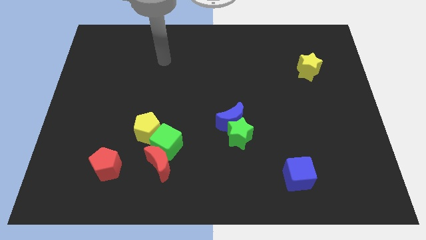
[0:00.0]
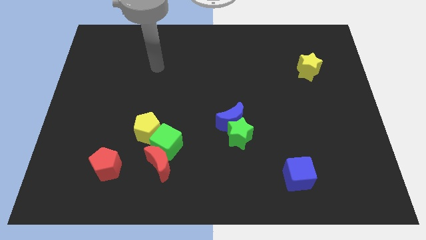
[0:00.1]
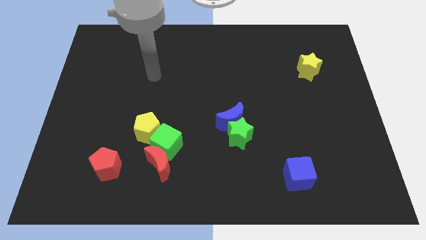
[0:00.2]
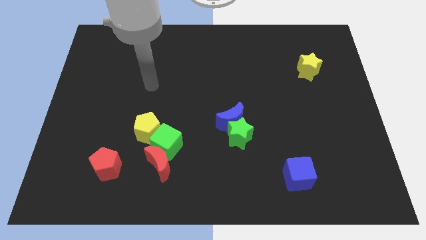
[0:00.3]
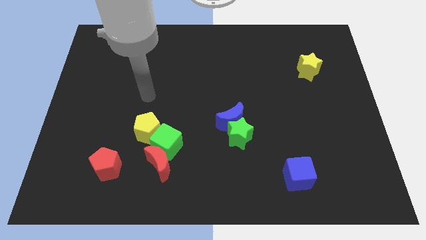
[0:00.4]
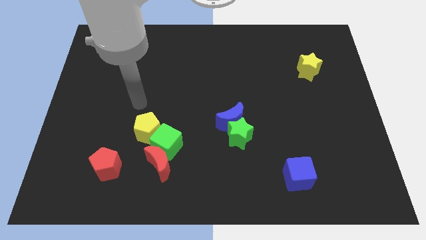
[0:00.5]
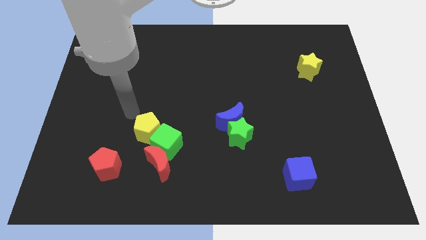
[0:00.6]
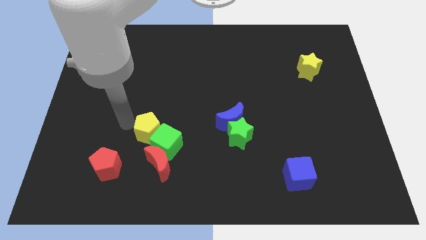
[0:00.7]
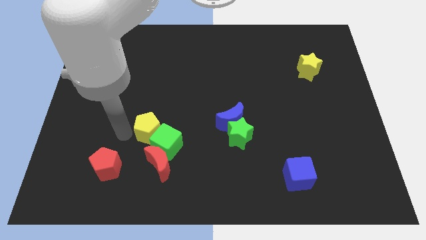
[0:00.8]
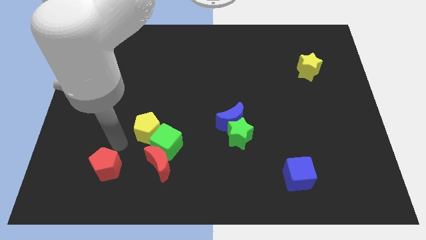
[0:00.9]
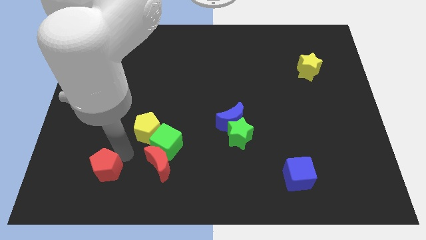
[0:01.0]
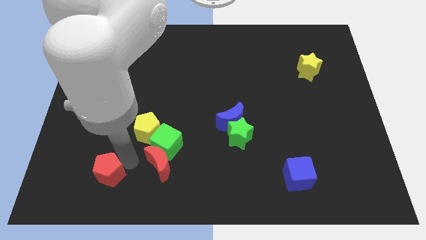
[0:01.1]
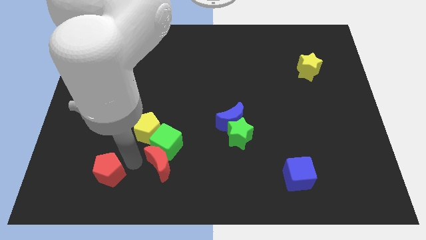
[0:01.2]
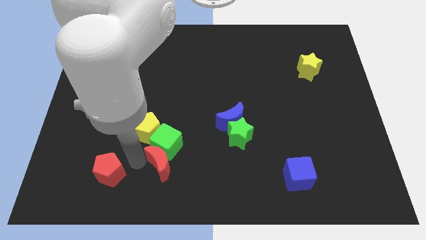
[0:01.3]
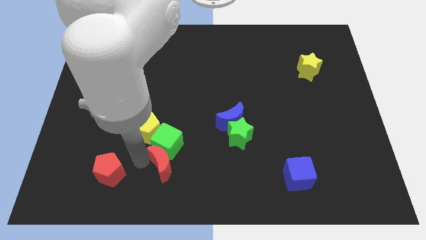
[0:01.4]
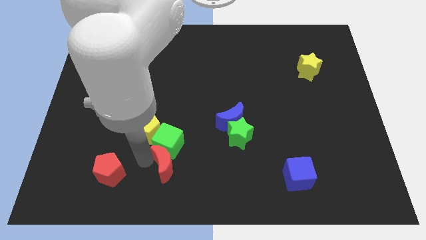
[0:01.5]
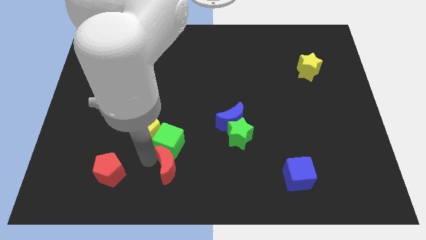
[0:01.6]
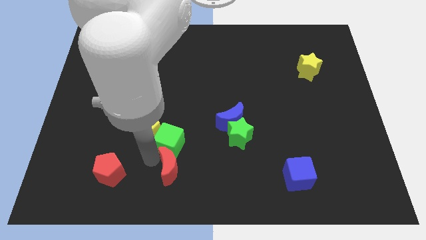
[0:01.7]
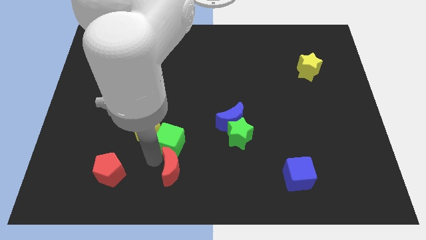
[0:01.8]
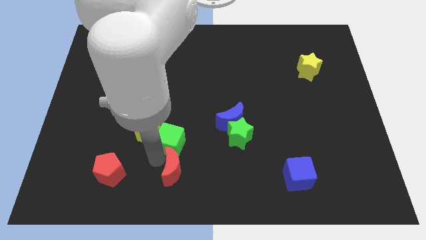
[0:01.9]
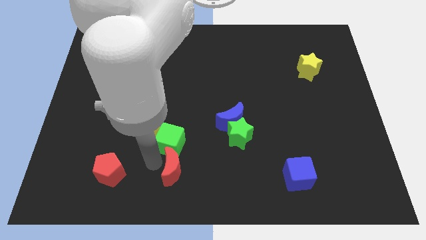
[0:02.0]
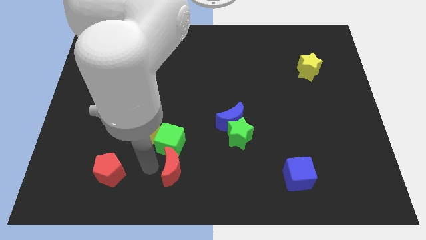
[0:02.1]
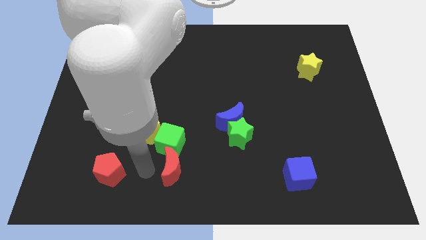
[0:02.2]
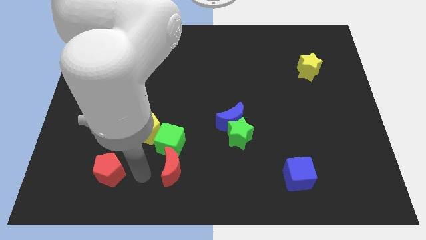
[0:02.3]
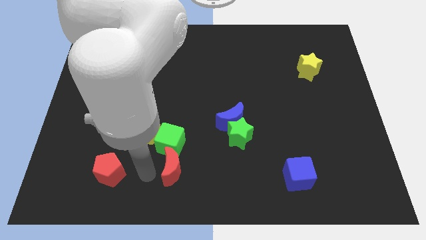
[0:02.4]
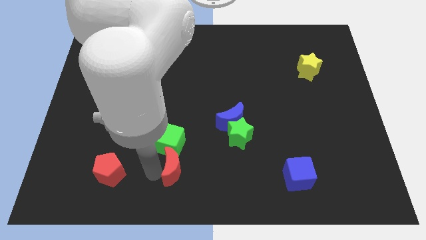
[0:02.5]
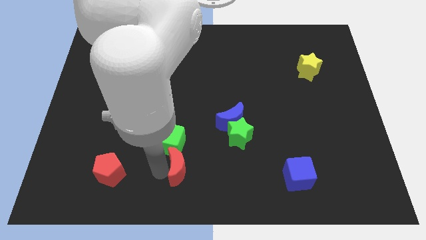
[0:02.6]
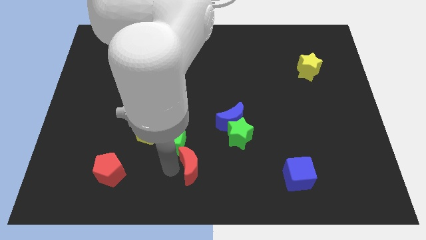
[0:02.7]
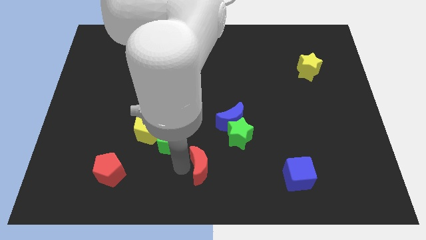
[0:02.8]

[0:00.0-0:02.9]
push the red moon a little to the right

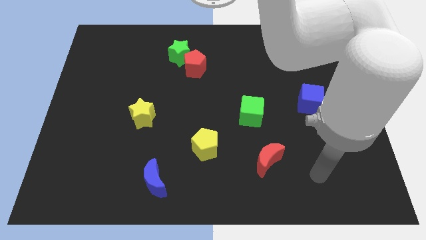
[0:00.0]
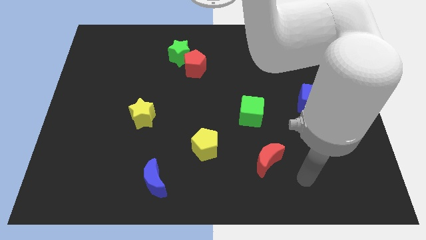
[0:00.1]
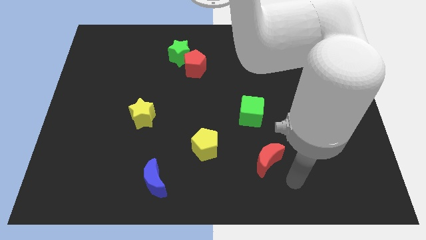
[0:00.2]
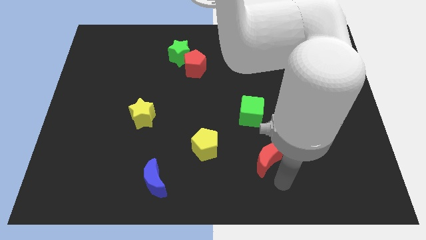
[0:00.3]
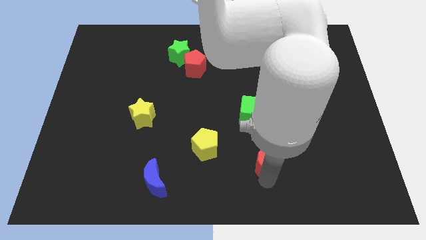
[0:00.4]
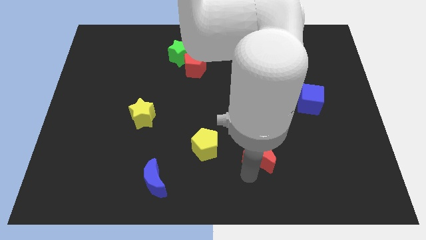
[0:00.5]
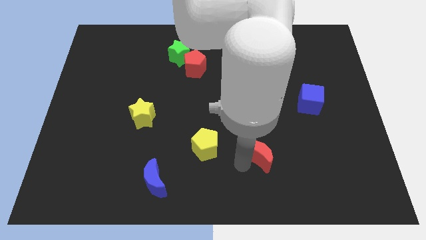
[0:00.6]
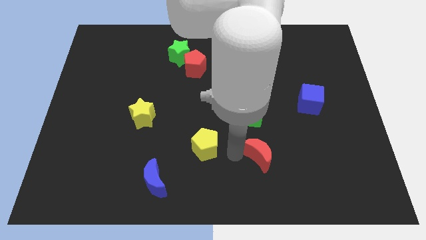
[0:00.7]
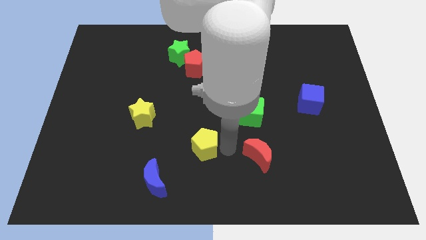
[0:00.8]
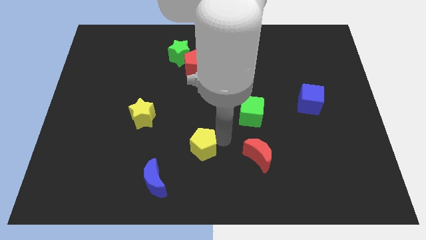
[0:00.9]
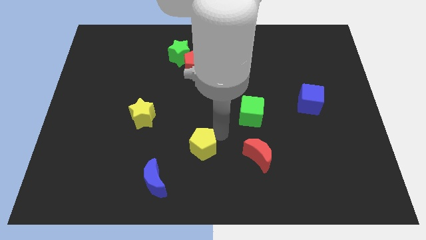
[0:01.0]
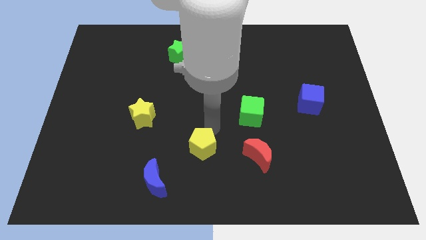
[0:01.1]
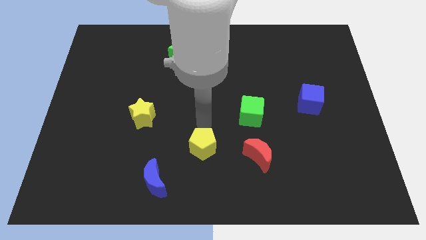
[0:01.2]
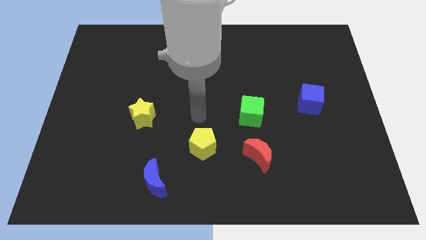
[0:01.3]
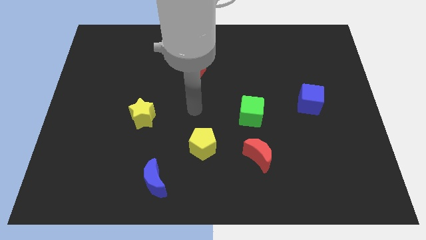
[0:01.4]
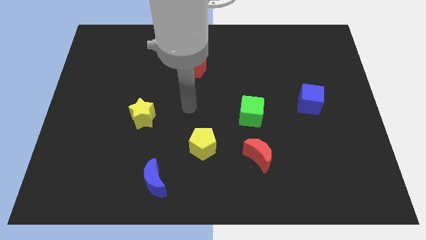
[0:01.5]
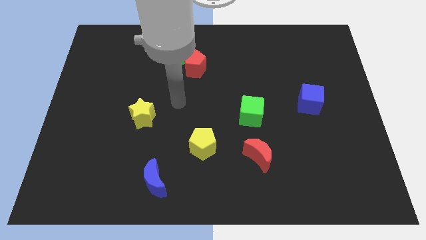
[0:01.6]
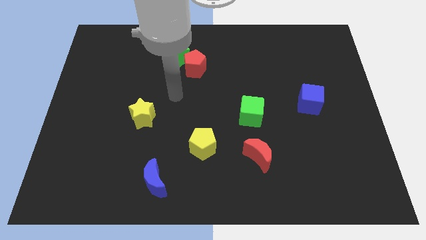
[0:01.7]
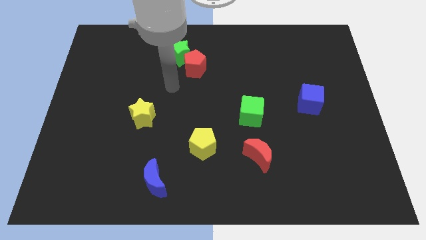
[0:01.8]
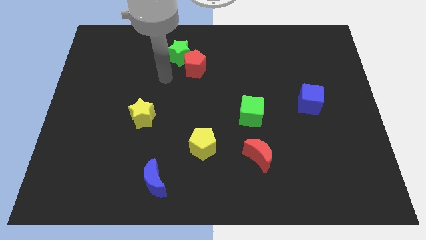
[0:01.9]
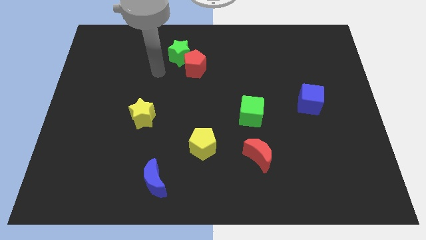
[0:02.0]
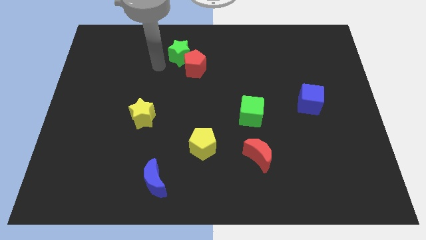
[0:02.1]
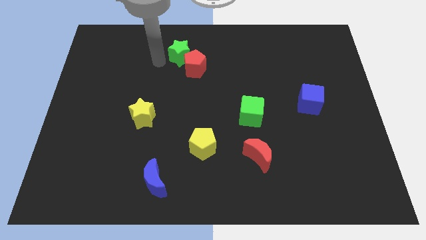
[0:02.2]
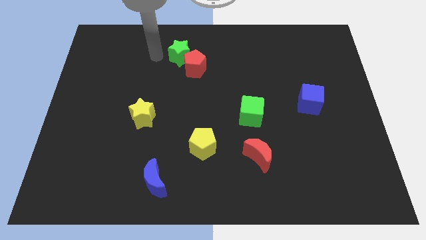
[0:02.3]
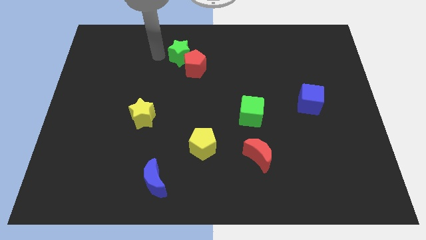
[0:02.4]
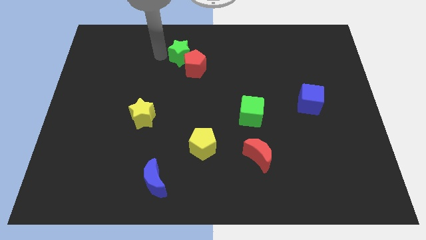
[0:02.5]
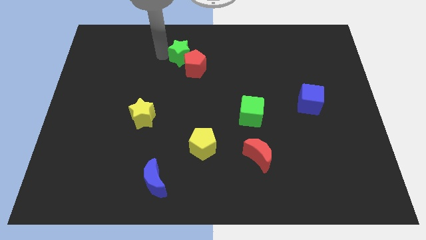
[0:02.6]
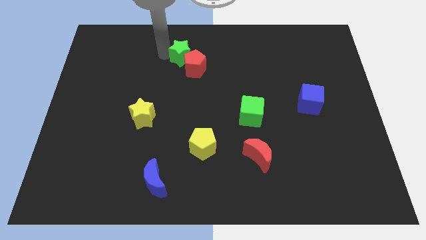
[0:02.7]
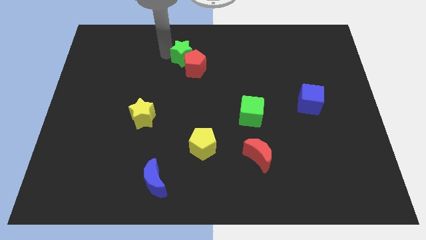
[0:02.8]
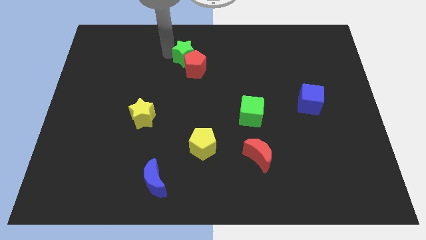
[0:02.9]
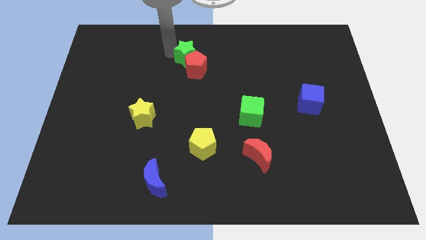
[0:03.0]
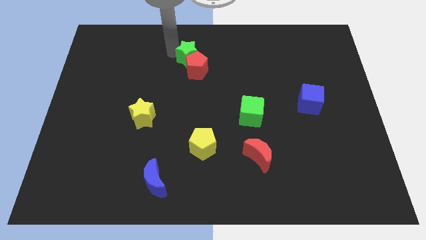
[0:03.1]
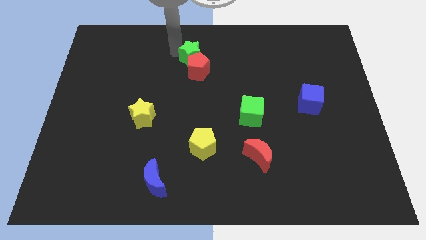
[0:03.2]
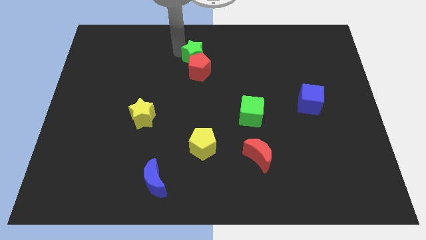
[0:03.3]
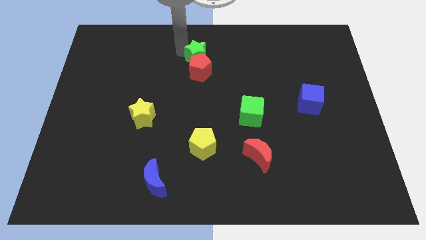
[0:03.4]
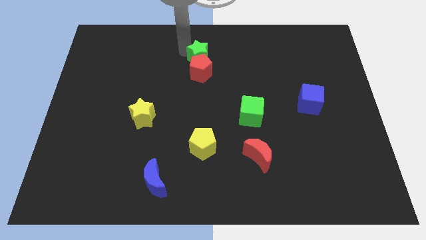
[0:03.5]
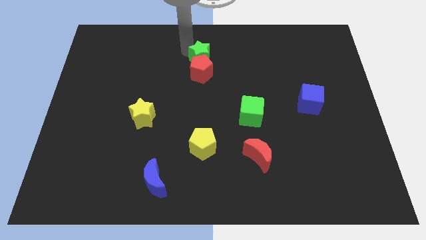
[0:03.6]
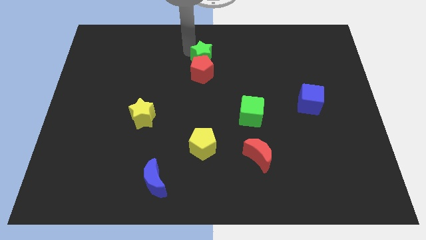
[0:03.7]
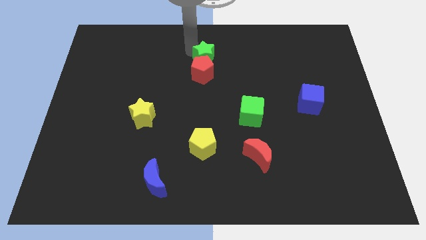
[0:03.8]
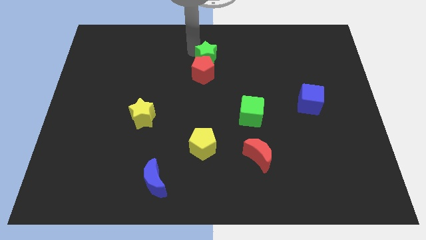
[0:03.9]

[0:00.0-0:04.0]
slightly move the green star to the right

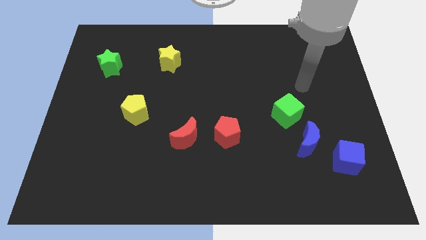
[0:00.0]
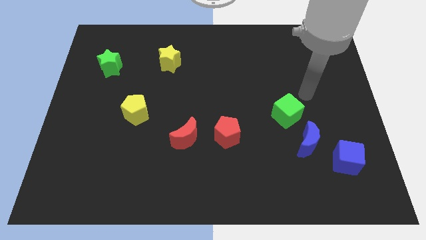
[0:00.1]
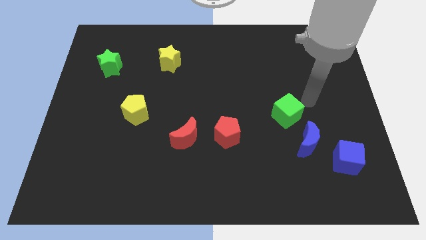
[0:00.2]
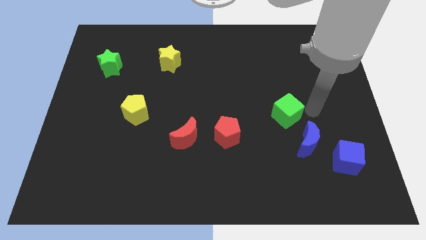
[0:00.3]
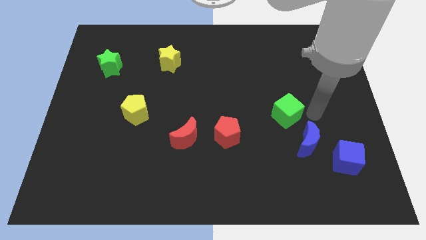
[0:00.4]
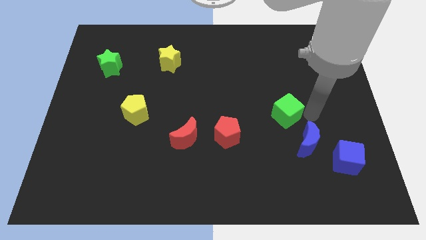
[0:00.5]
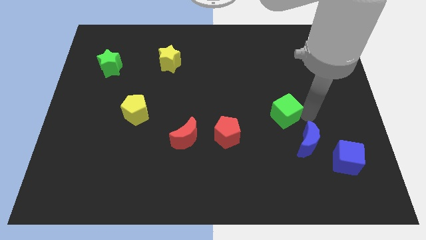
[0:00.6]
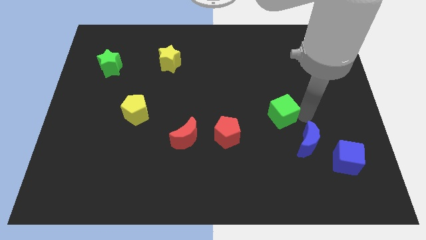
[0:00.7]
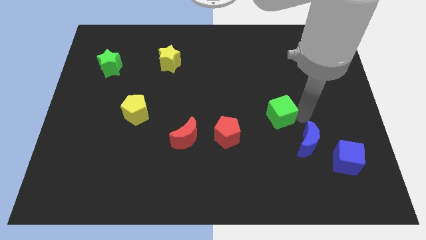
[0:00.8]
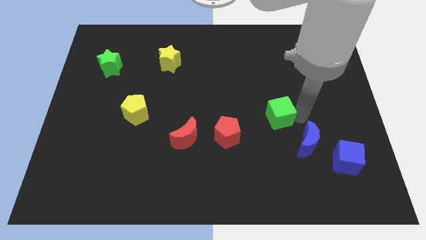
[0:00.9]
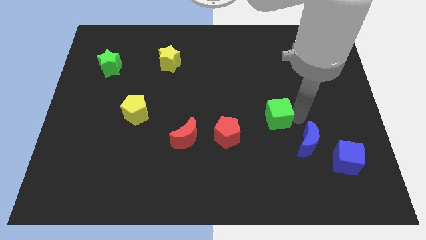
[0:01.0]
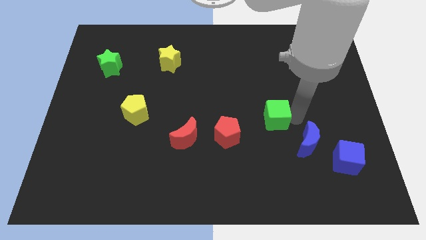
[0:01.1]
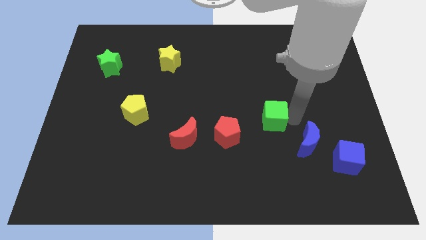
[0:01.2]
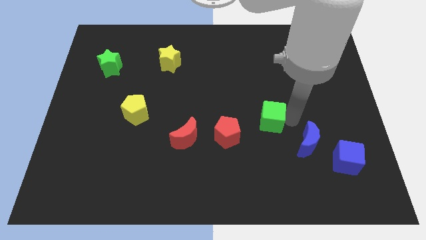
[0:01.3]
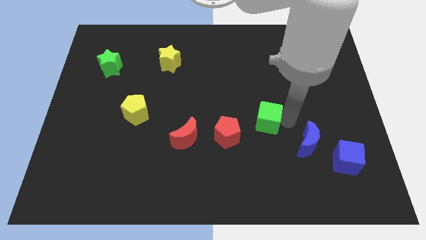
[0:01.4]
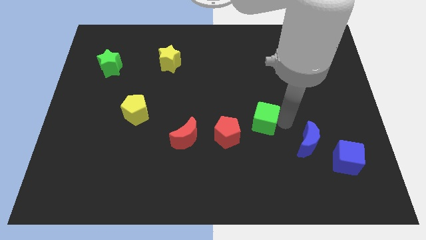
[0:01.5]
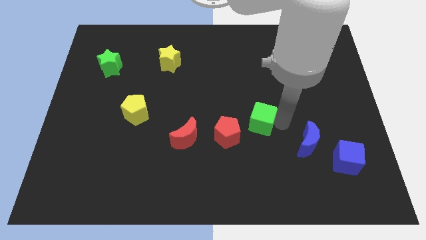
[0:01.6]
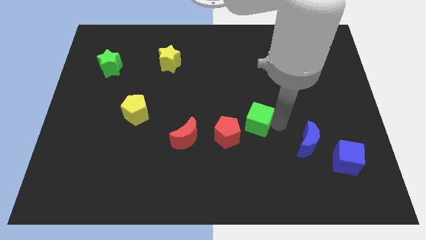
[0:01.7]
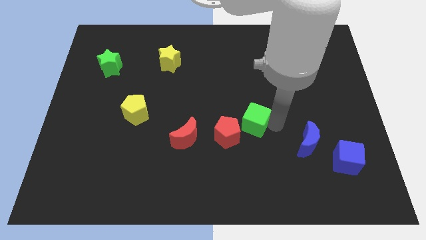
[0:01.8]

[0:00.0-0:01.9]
move the green cube left slightly
